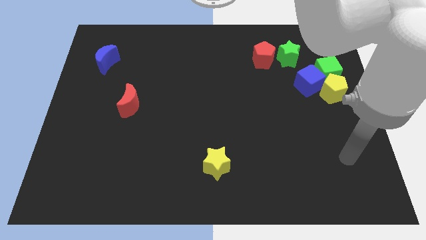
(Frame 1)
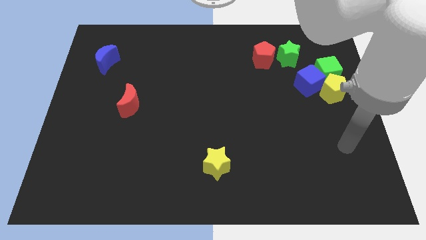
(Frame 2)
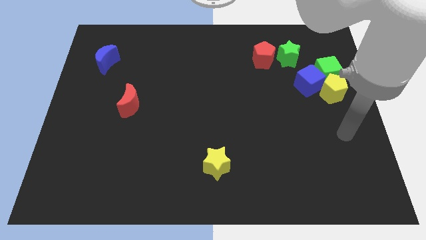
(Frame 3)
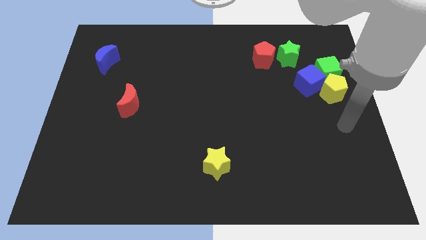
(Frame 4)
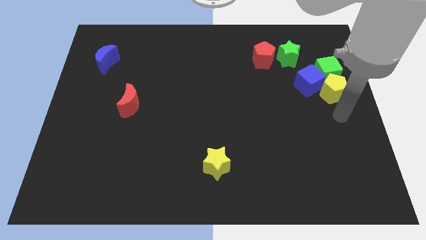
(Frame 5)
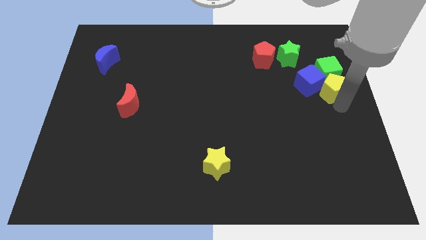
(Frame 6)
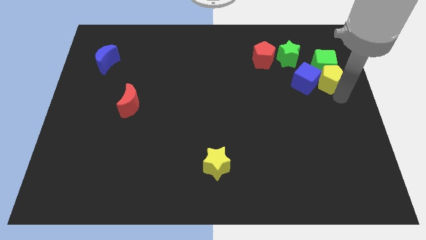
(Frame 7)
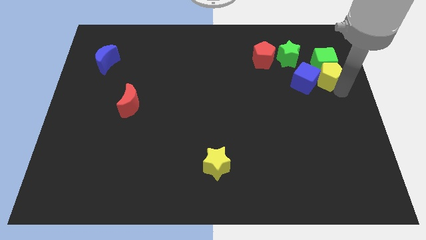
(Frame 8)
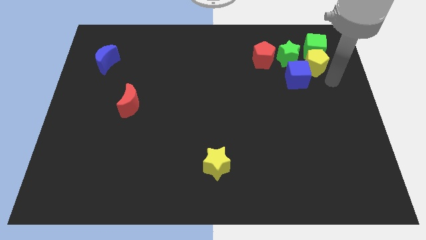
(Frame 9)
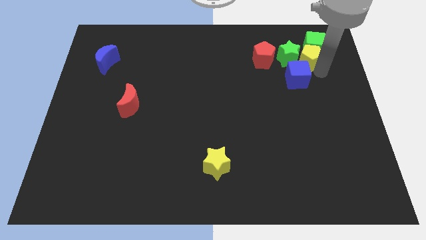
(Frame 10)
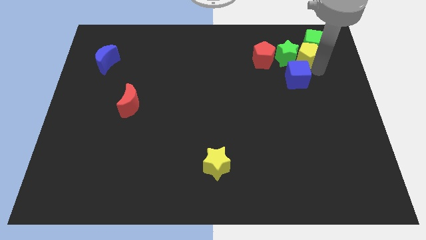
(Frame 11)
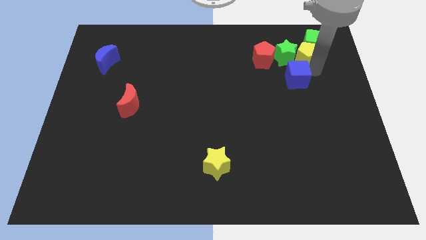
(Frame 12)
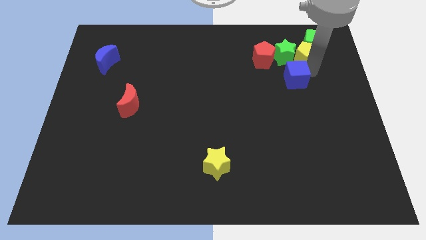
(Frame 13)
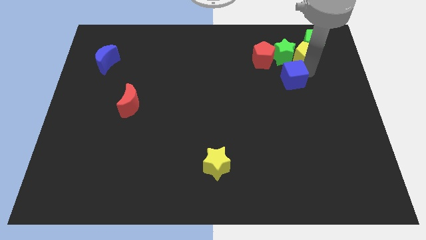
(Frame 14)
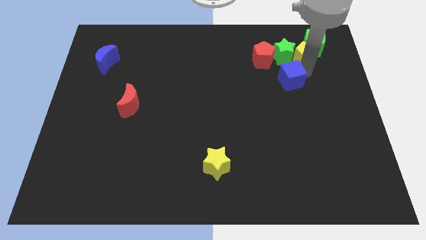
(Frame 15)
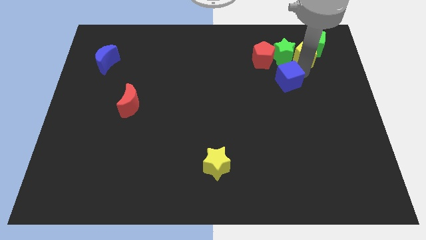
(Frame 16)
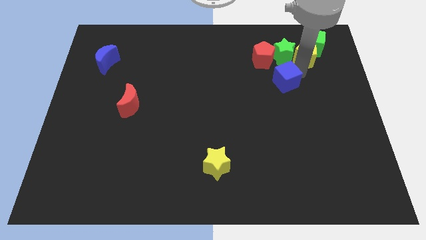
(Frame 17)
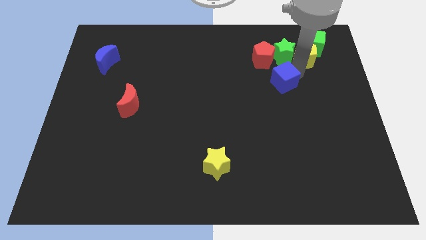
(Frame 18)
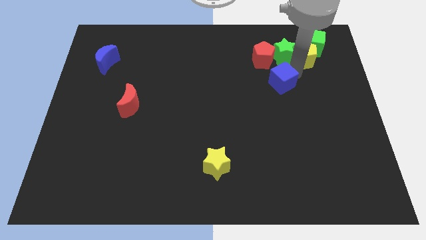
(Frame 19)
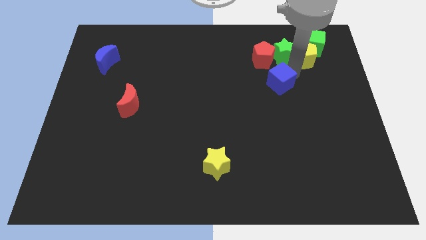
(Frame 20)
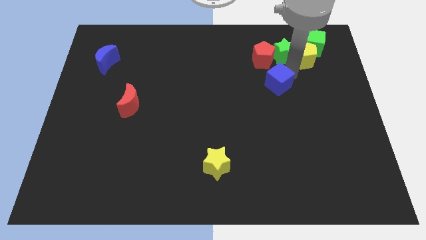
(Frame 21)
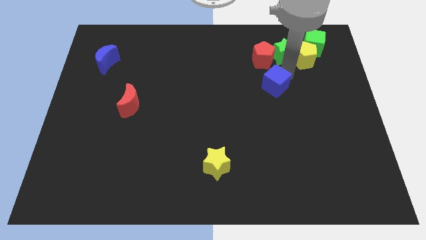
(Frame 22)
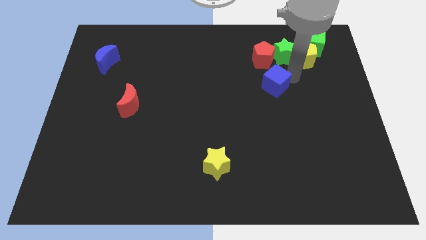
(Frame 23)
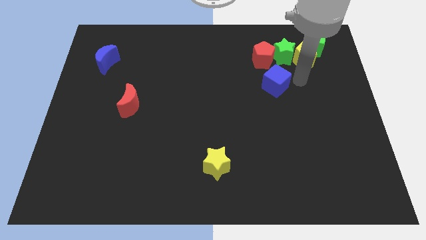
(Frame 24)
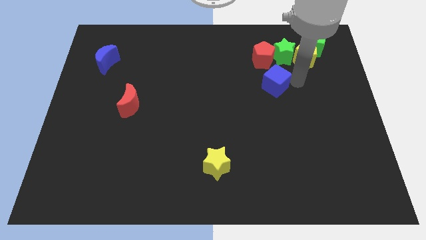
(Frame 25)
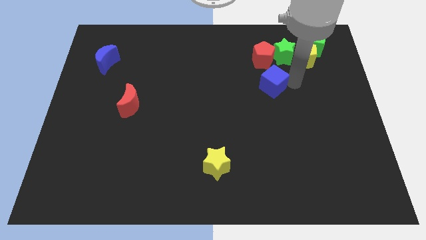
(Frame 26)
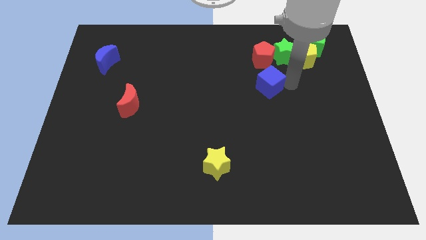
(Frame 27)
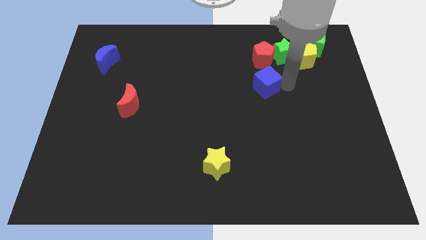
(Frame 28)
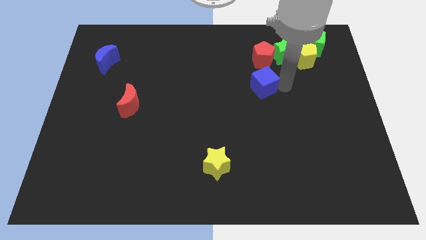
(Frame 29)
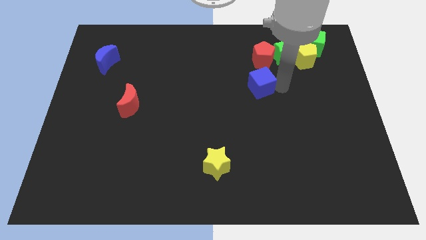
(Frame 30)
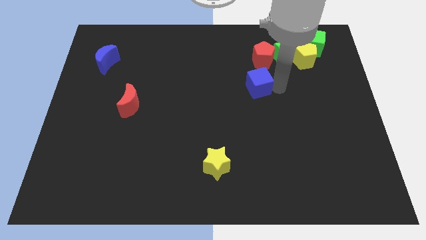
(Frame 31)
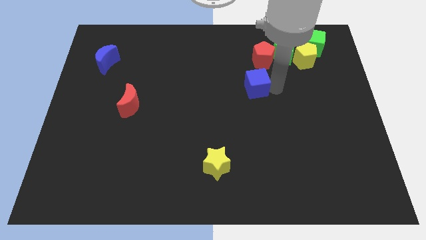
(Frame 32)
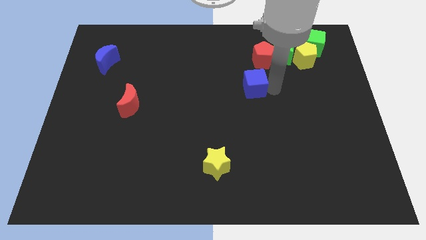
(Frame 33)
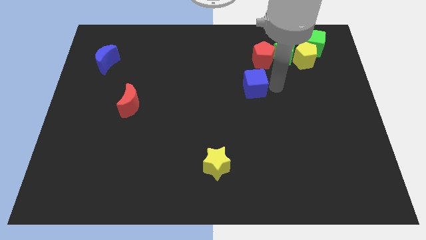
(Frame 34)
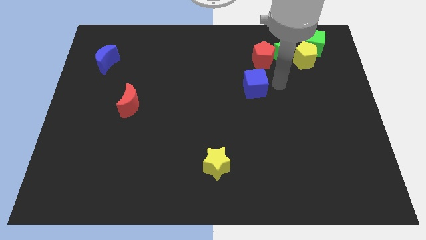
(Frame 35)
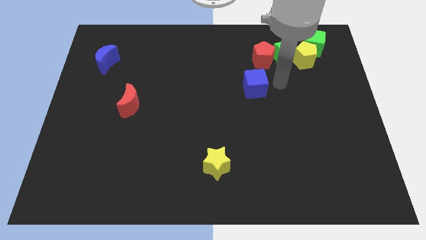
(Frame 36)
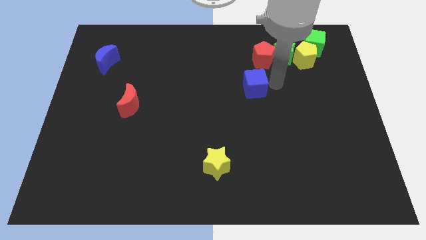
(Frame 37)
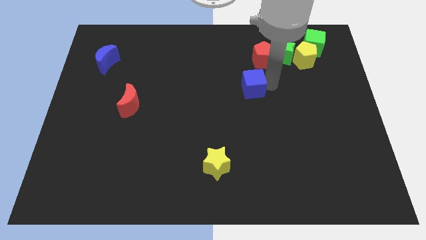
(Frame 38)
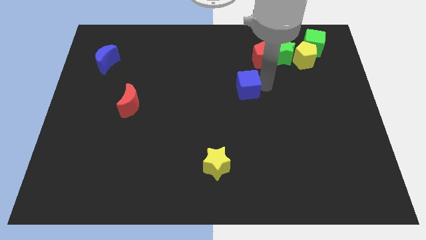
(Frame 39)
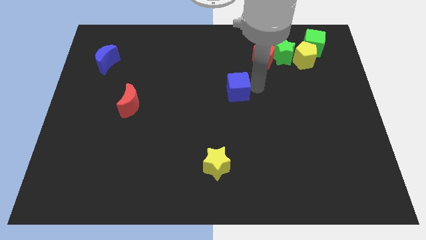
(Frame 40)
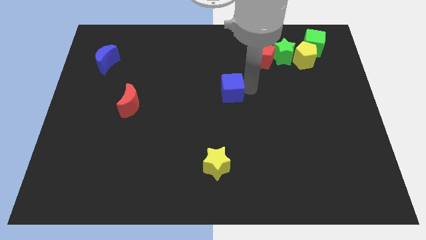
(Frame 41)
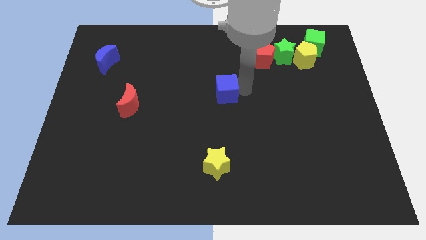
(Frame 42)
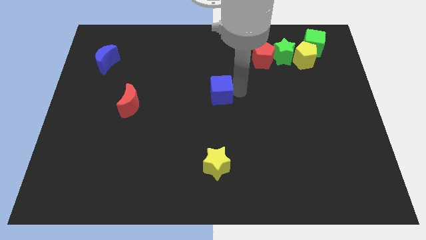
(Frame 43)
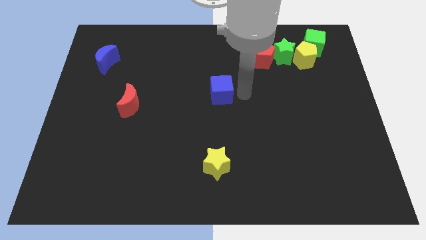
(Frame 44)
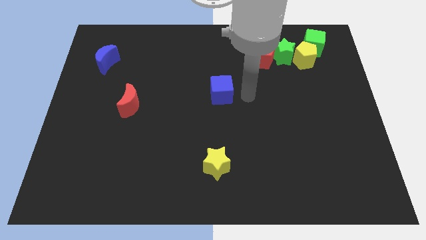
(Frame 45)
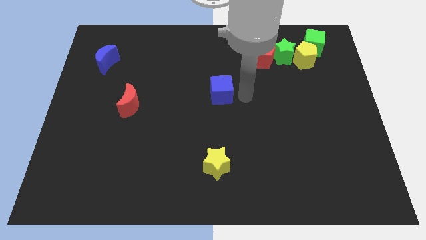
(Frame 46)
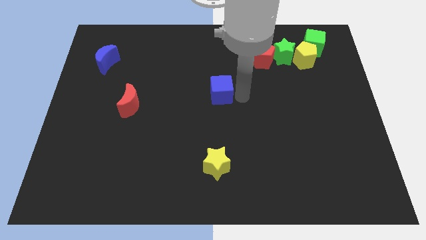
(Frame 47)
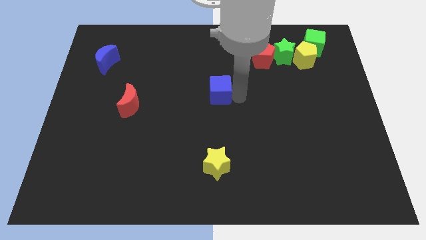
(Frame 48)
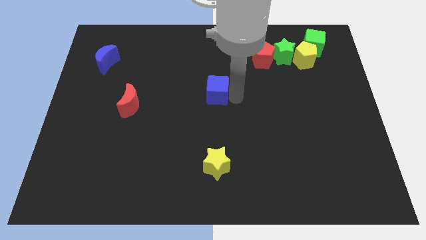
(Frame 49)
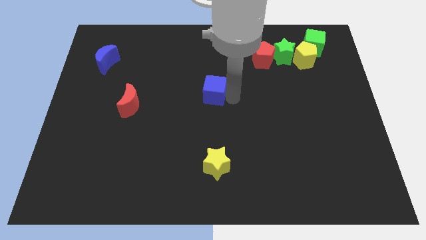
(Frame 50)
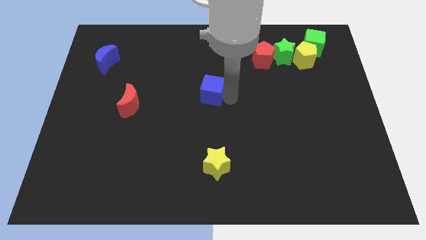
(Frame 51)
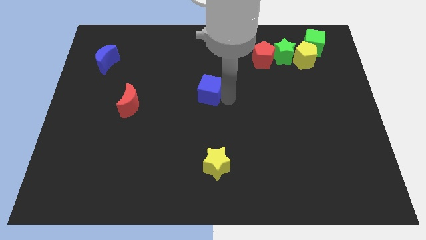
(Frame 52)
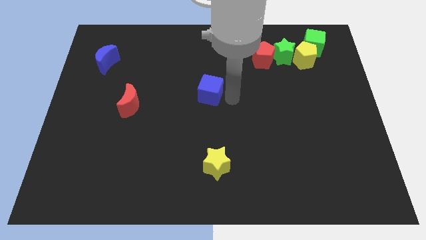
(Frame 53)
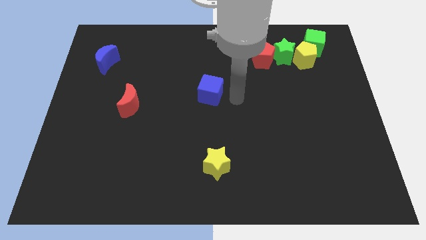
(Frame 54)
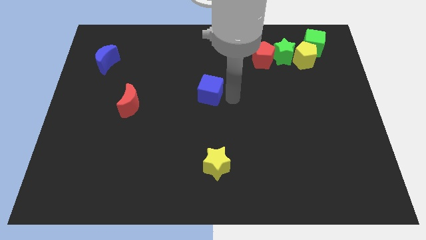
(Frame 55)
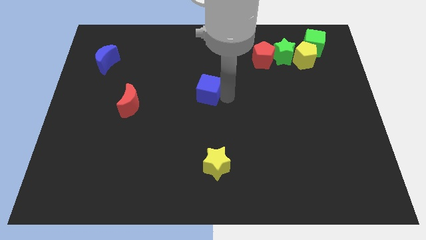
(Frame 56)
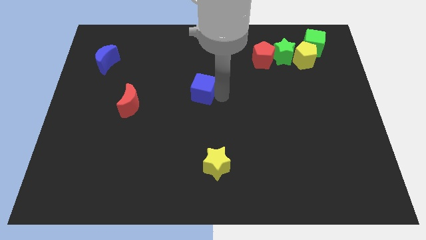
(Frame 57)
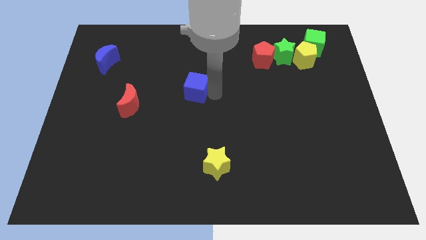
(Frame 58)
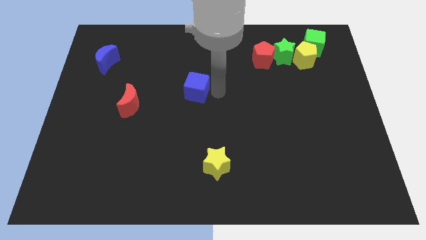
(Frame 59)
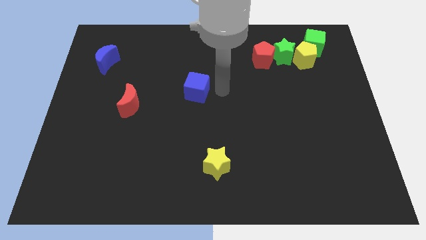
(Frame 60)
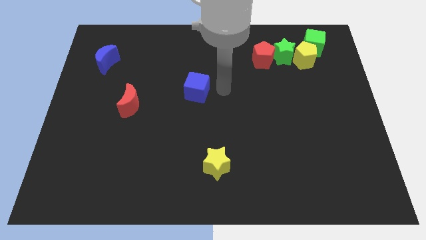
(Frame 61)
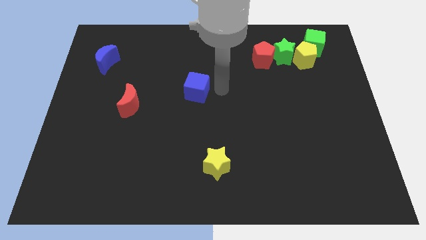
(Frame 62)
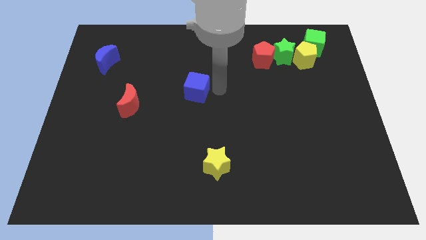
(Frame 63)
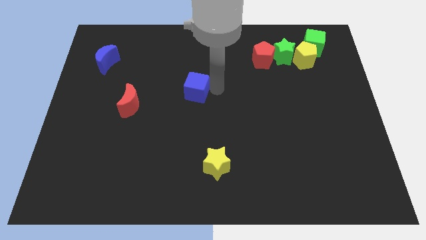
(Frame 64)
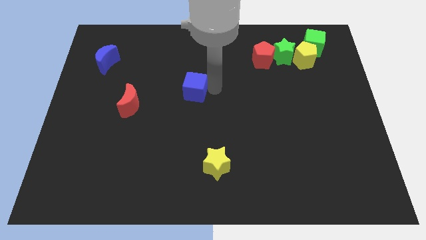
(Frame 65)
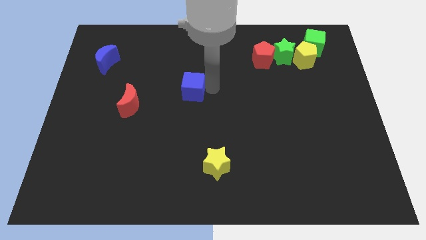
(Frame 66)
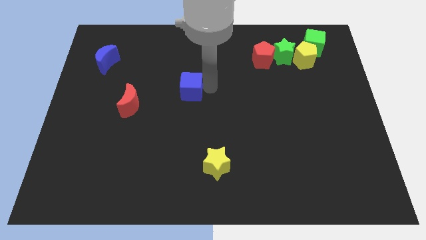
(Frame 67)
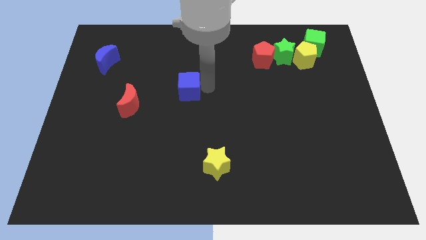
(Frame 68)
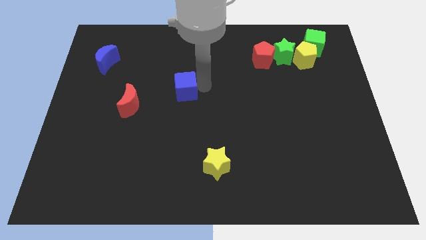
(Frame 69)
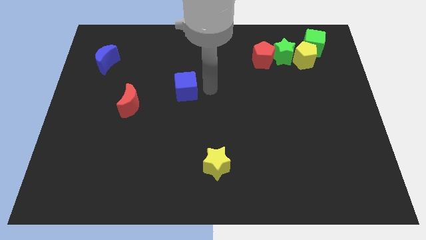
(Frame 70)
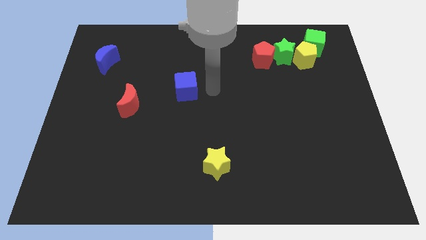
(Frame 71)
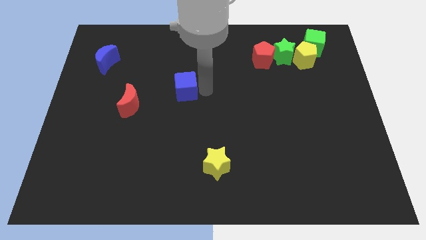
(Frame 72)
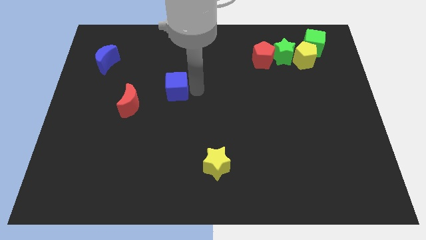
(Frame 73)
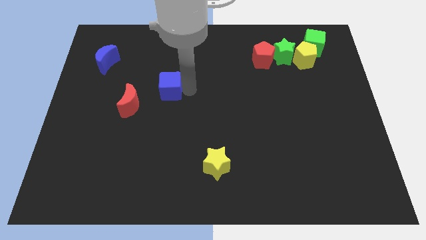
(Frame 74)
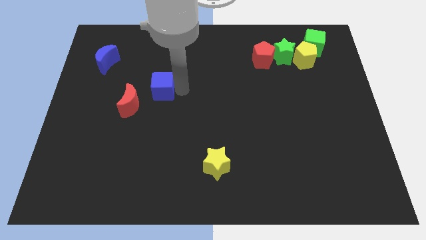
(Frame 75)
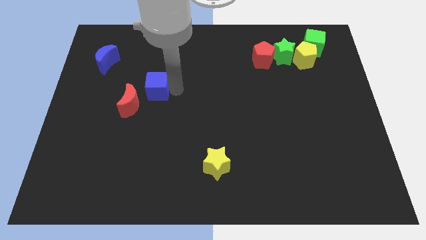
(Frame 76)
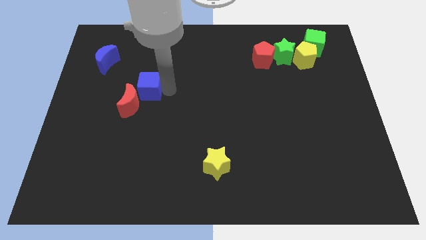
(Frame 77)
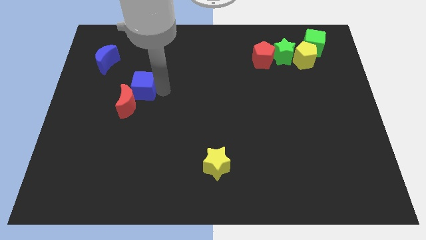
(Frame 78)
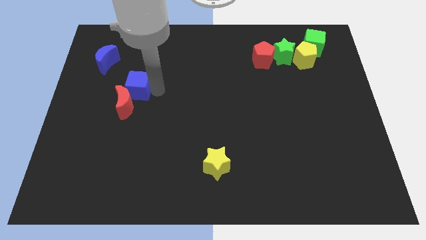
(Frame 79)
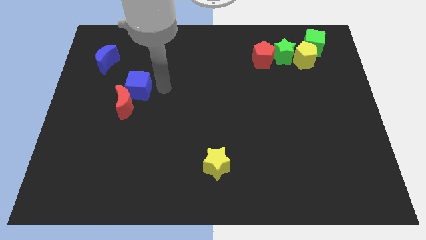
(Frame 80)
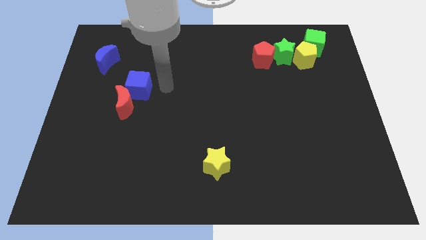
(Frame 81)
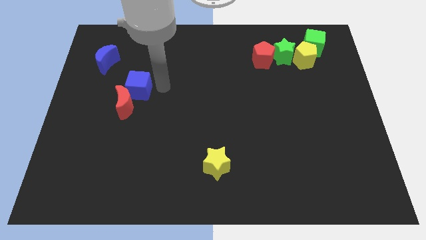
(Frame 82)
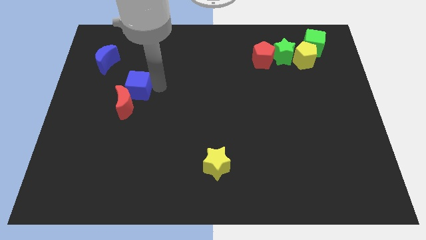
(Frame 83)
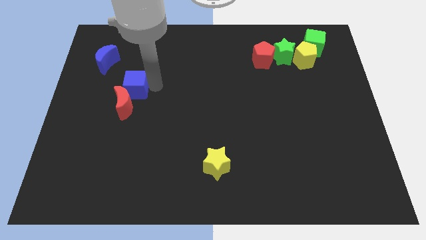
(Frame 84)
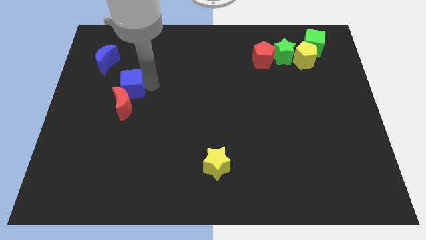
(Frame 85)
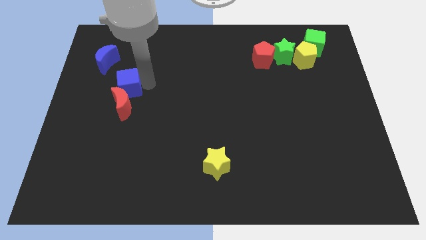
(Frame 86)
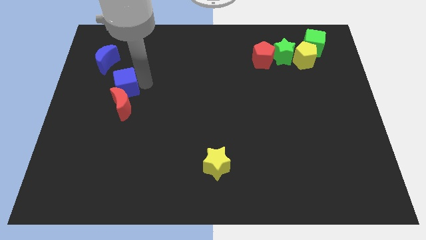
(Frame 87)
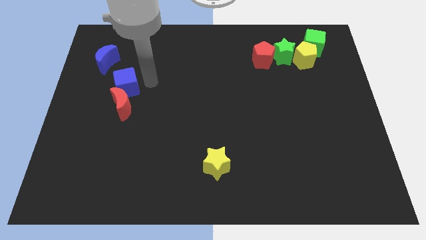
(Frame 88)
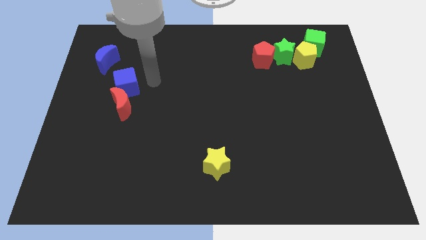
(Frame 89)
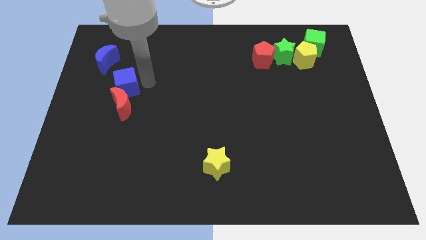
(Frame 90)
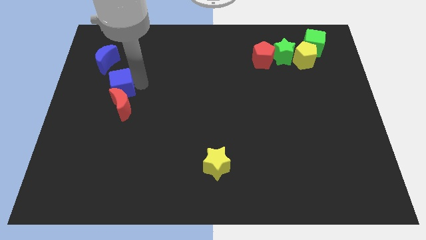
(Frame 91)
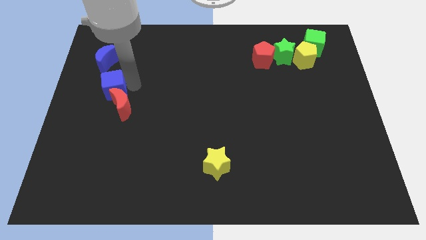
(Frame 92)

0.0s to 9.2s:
put the blue cube to the bottom of the blue moon
